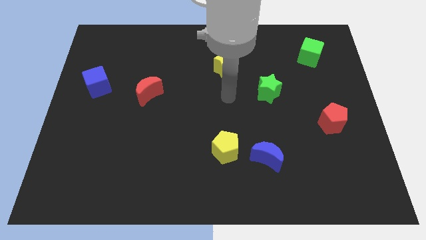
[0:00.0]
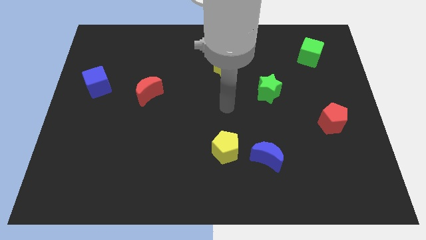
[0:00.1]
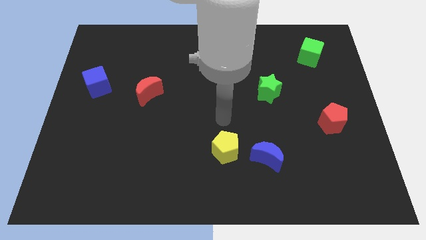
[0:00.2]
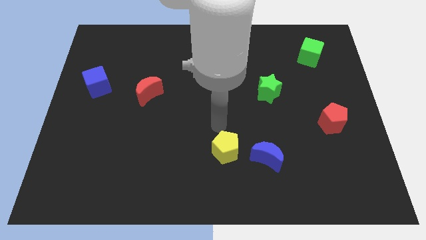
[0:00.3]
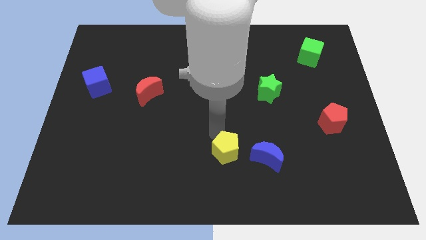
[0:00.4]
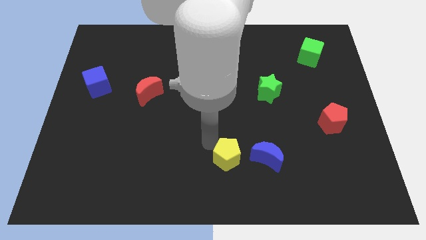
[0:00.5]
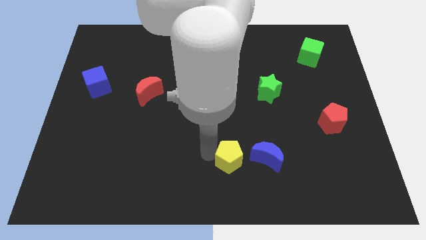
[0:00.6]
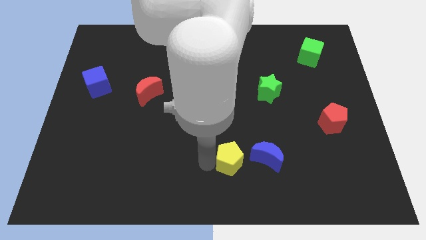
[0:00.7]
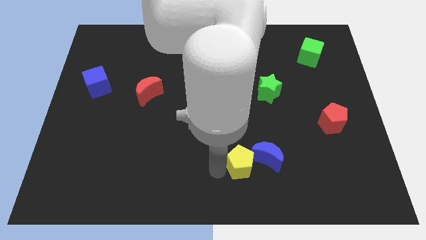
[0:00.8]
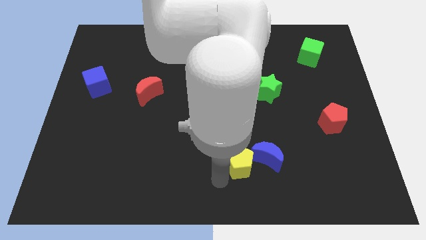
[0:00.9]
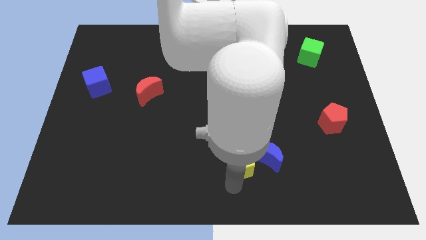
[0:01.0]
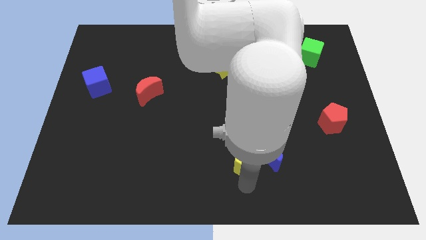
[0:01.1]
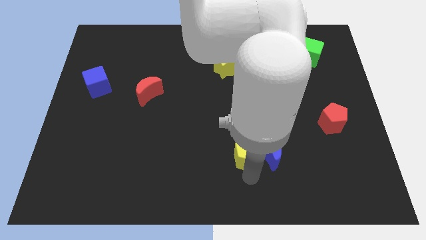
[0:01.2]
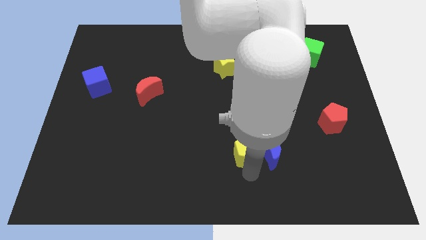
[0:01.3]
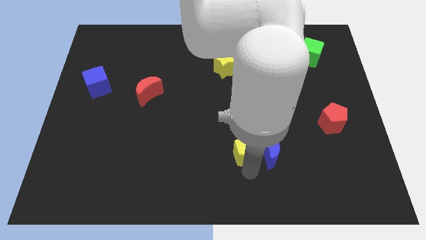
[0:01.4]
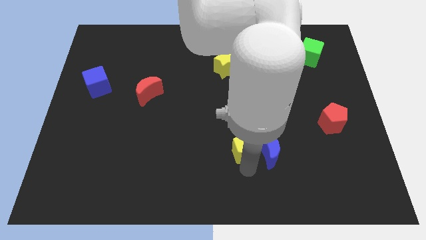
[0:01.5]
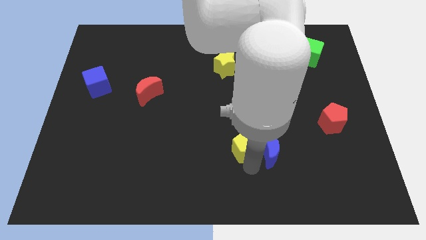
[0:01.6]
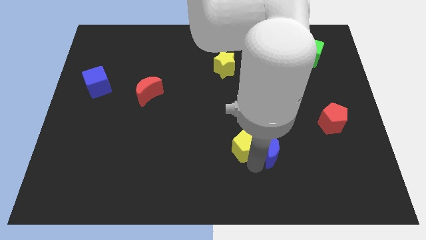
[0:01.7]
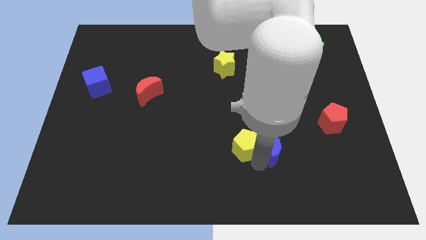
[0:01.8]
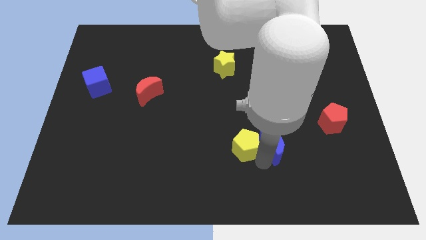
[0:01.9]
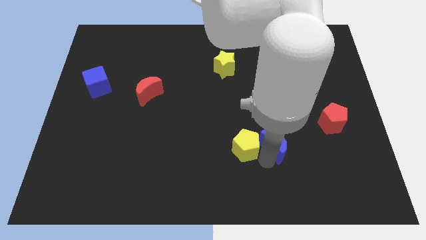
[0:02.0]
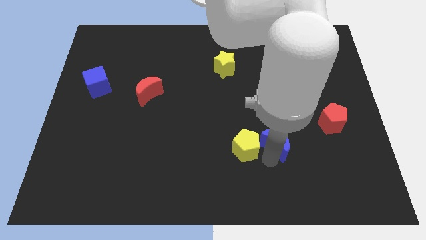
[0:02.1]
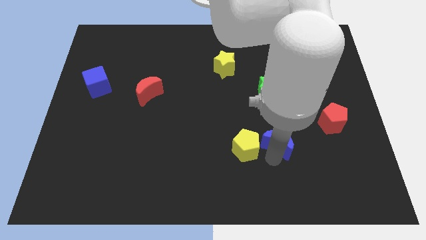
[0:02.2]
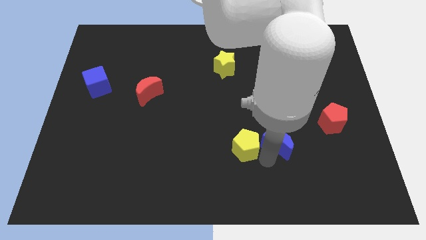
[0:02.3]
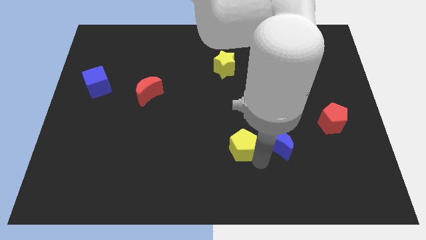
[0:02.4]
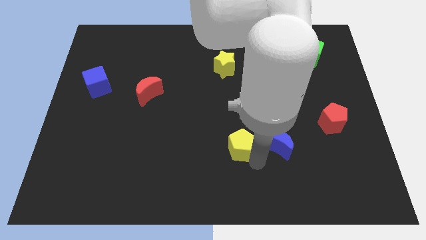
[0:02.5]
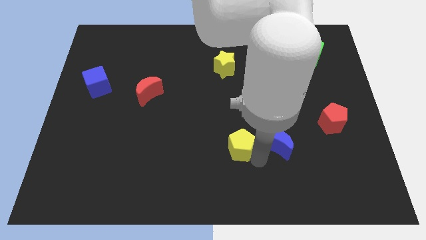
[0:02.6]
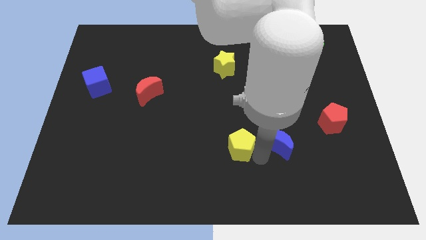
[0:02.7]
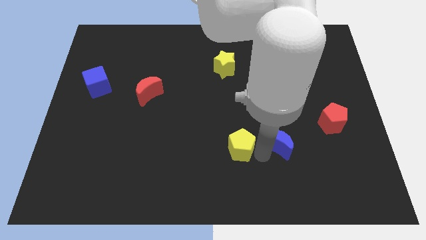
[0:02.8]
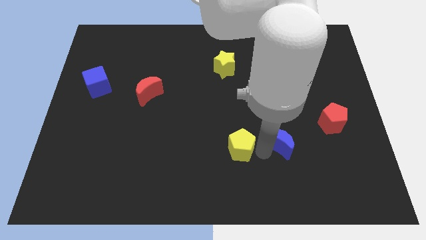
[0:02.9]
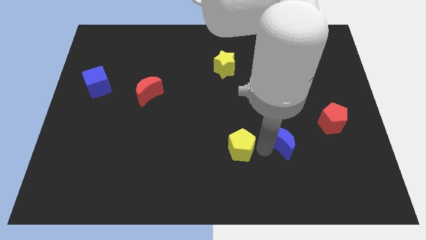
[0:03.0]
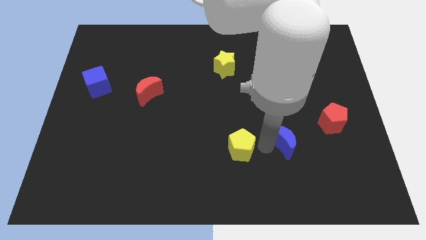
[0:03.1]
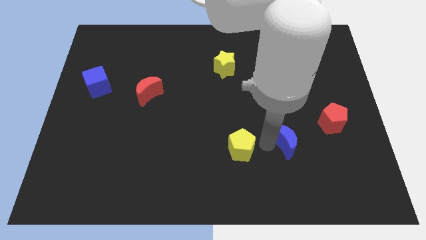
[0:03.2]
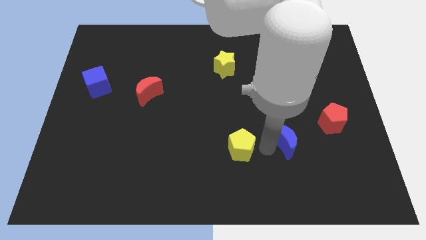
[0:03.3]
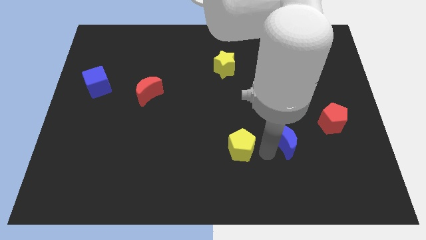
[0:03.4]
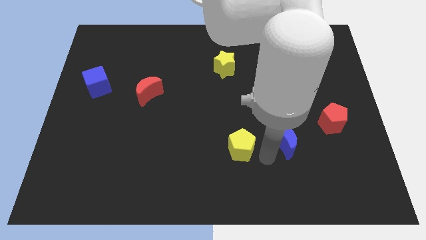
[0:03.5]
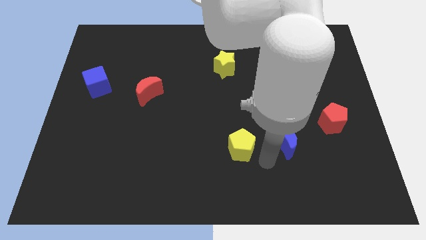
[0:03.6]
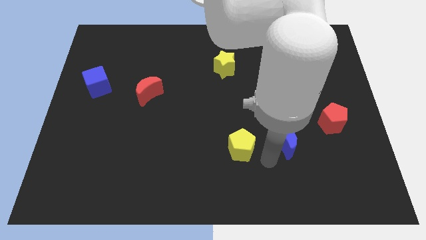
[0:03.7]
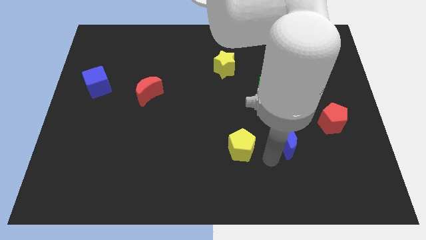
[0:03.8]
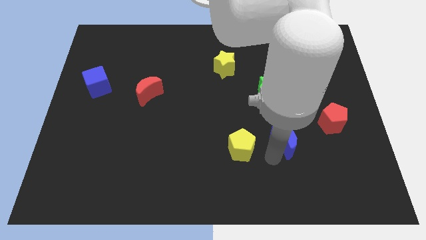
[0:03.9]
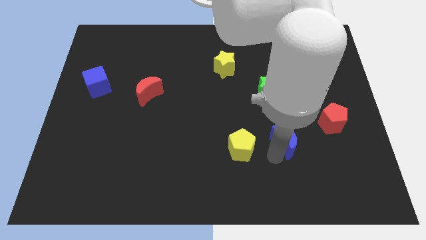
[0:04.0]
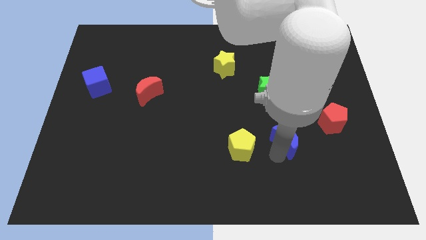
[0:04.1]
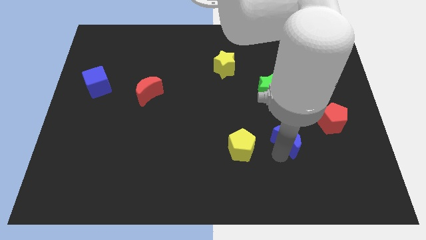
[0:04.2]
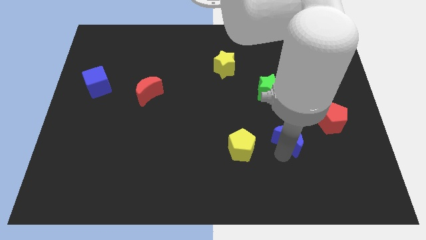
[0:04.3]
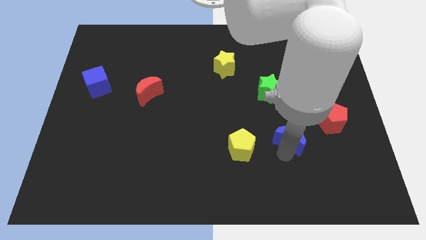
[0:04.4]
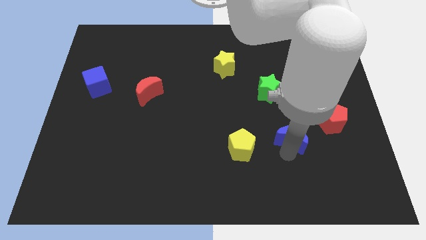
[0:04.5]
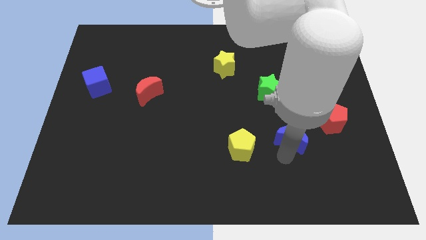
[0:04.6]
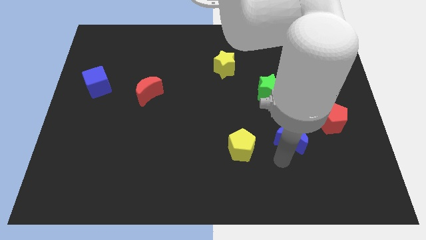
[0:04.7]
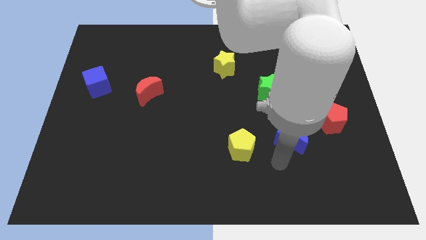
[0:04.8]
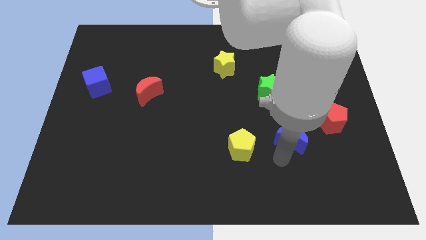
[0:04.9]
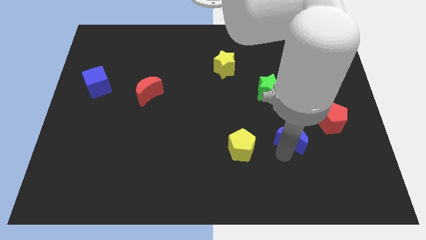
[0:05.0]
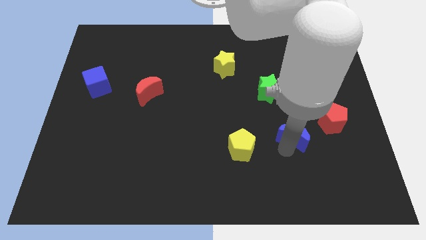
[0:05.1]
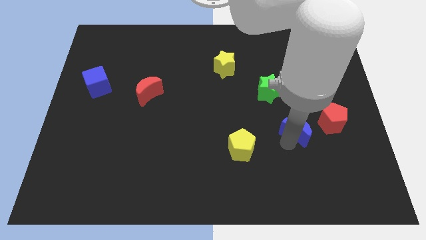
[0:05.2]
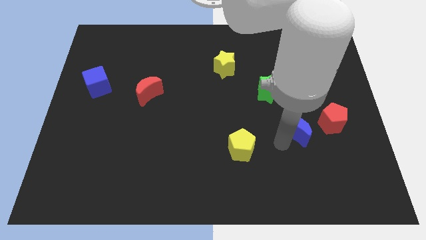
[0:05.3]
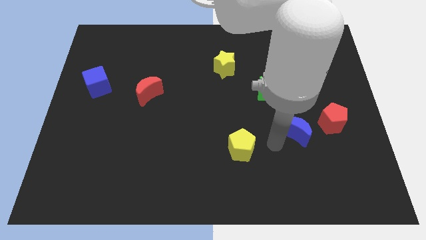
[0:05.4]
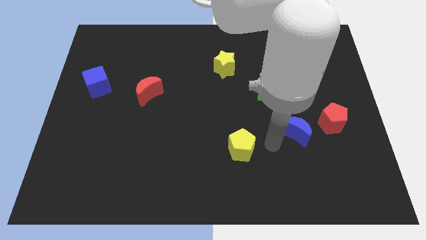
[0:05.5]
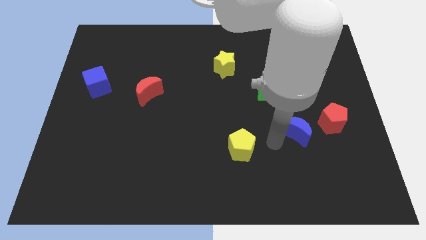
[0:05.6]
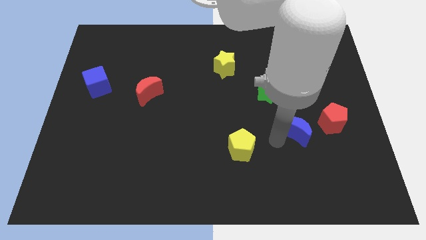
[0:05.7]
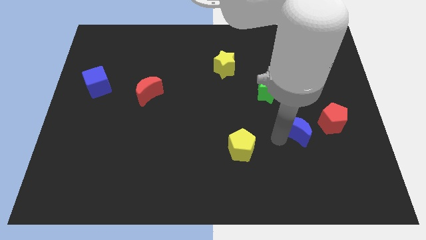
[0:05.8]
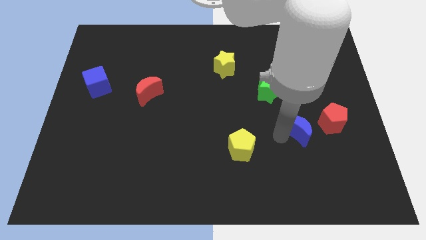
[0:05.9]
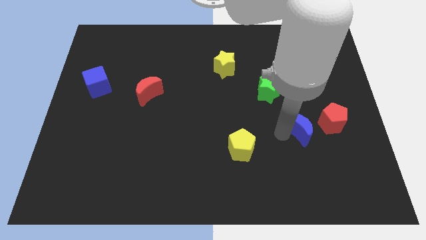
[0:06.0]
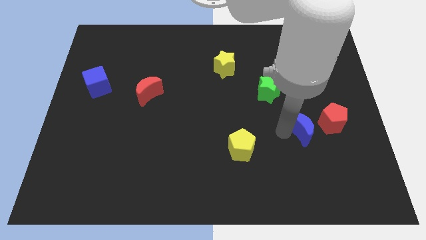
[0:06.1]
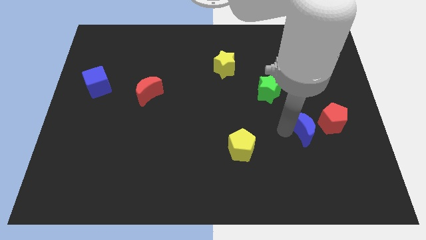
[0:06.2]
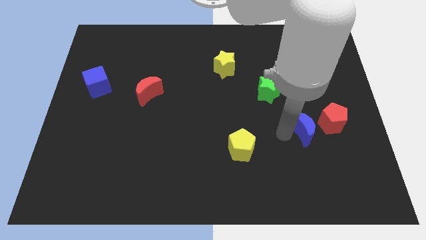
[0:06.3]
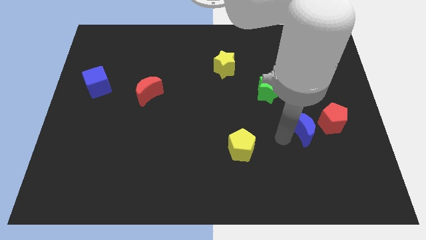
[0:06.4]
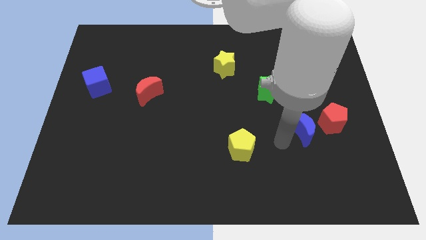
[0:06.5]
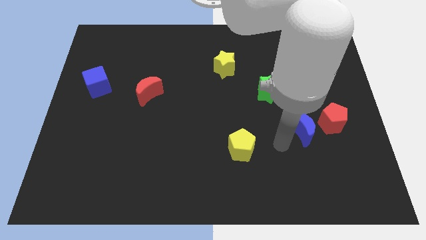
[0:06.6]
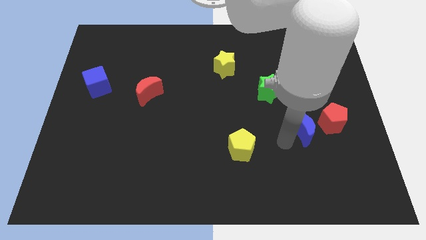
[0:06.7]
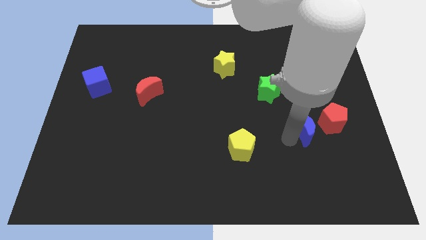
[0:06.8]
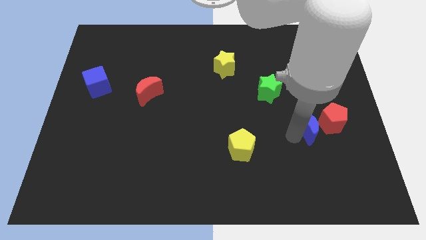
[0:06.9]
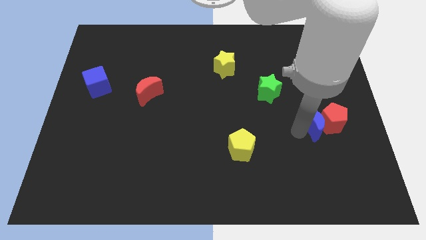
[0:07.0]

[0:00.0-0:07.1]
push the blue moon to the red pentagon
